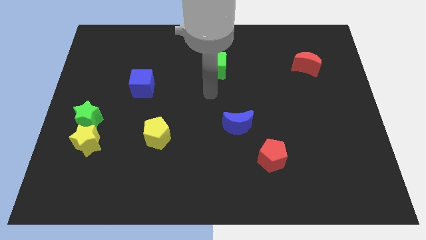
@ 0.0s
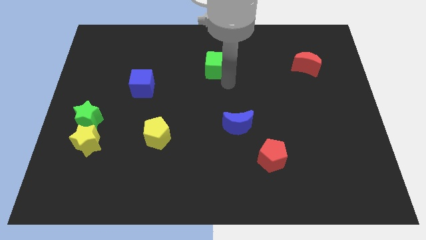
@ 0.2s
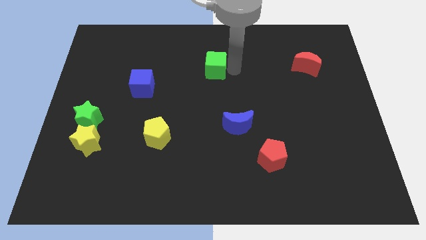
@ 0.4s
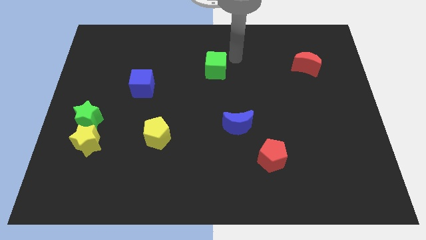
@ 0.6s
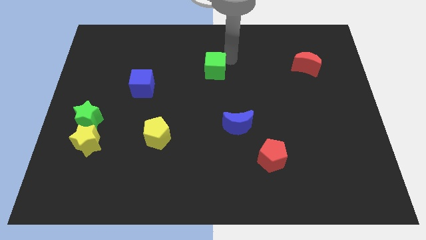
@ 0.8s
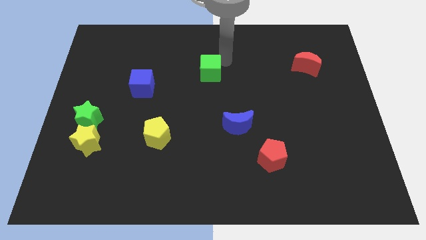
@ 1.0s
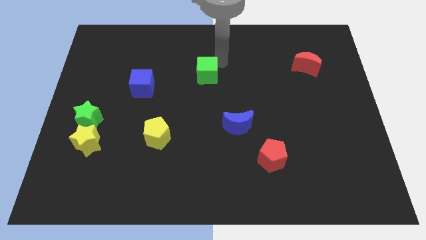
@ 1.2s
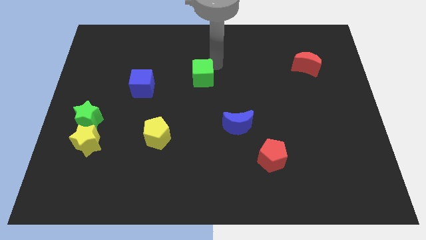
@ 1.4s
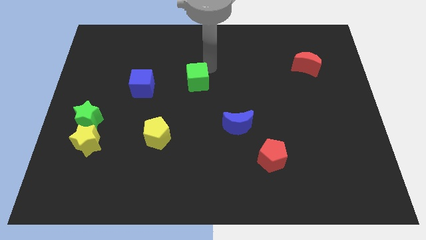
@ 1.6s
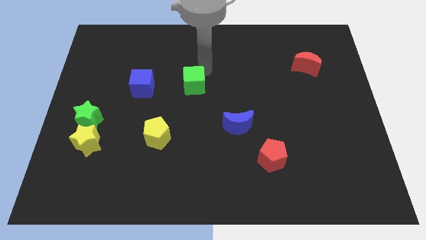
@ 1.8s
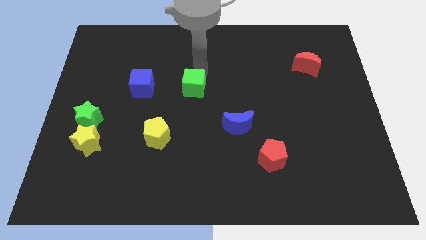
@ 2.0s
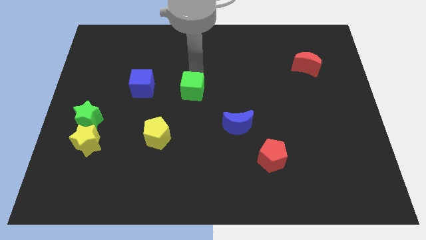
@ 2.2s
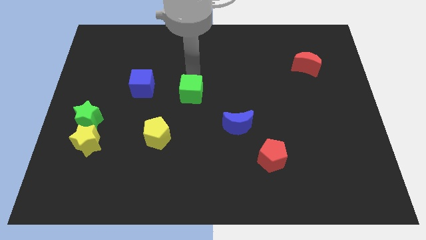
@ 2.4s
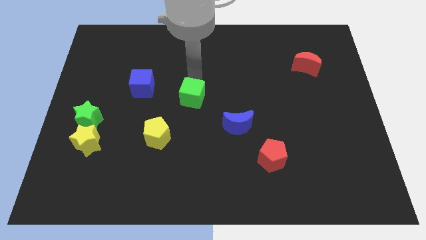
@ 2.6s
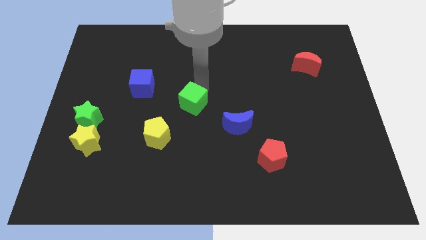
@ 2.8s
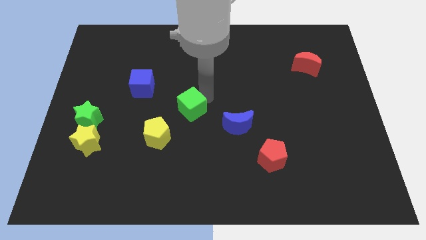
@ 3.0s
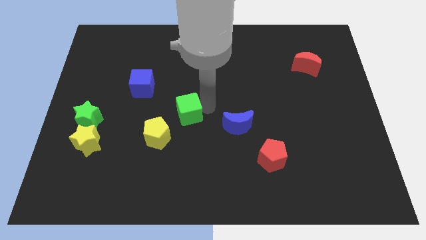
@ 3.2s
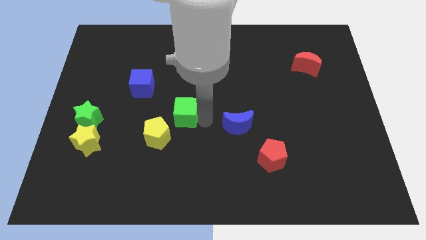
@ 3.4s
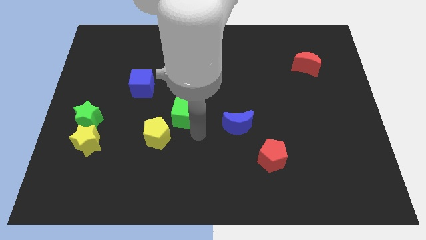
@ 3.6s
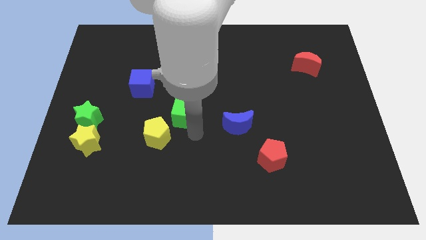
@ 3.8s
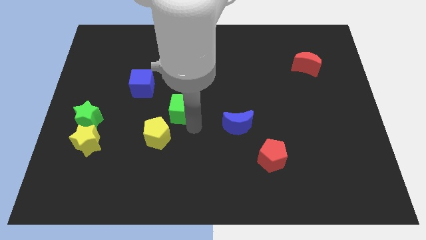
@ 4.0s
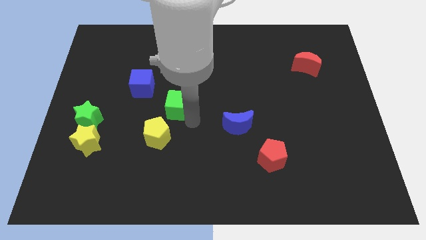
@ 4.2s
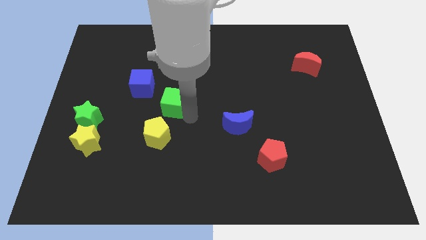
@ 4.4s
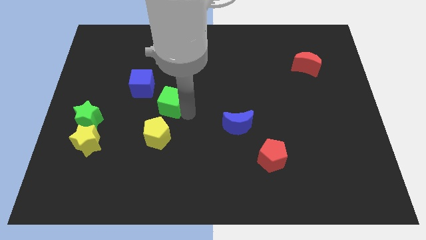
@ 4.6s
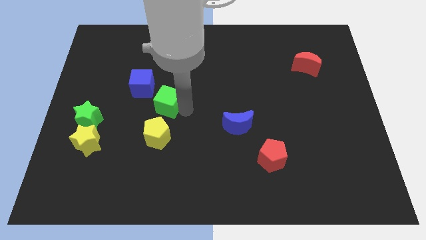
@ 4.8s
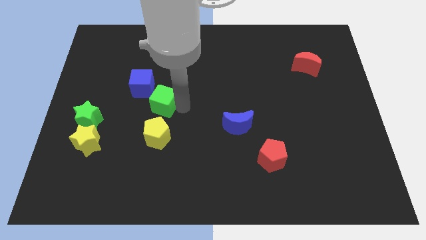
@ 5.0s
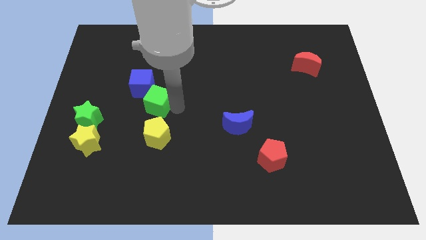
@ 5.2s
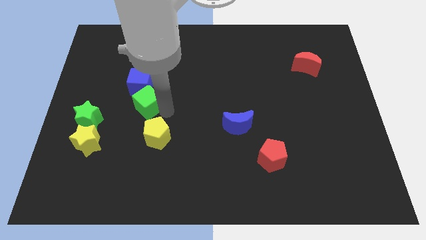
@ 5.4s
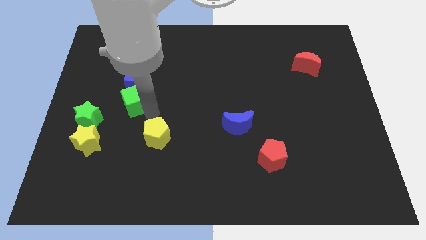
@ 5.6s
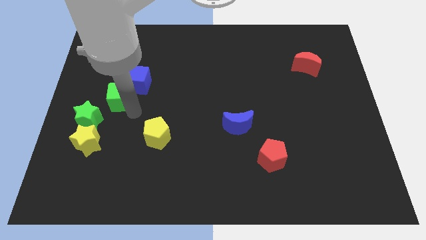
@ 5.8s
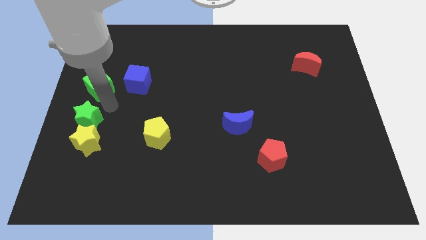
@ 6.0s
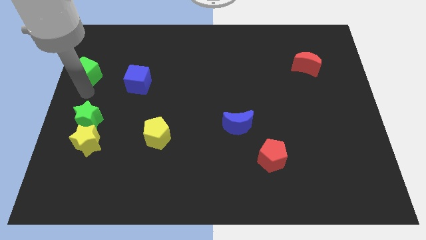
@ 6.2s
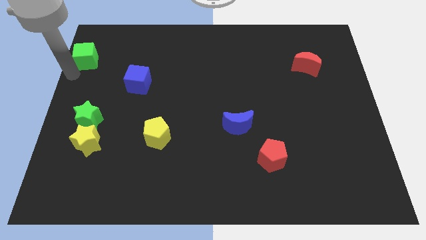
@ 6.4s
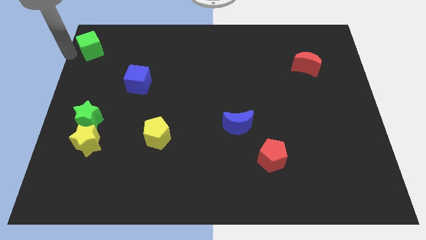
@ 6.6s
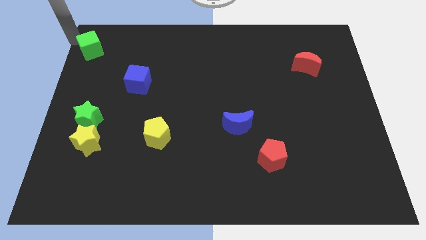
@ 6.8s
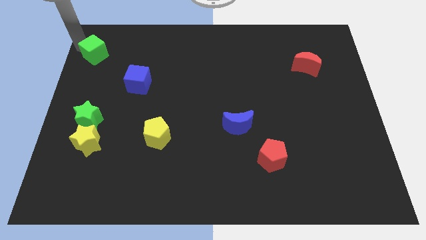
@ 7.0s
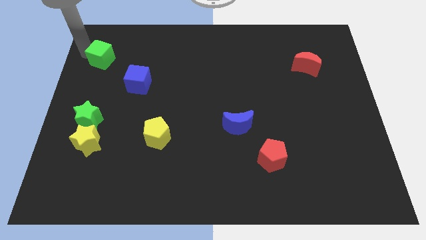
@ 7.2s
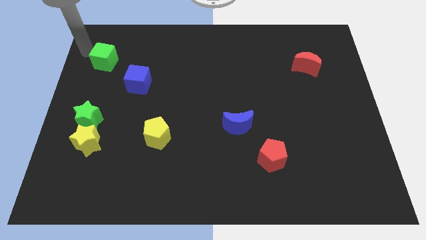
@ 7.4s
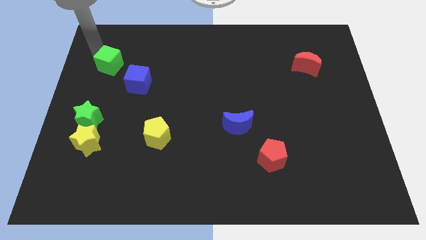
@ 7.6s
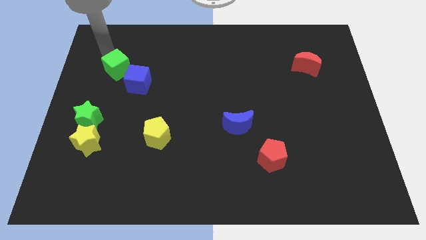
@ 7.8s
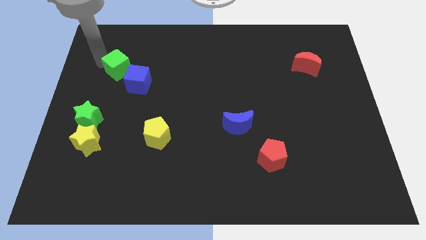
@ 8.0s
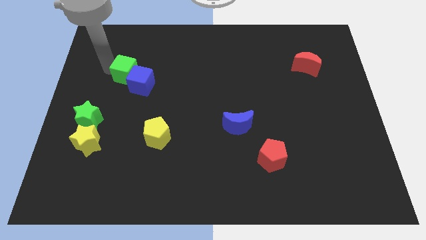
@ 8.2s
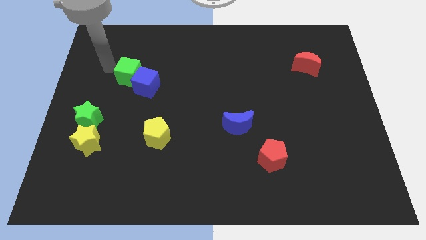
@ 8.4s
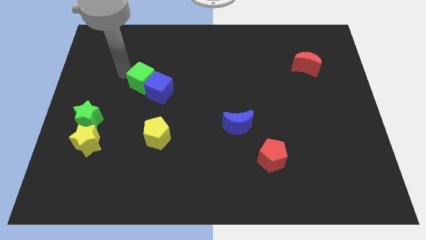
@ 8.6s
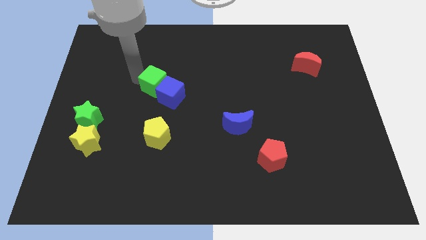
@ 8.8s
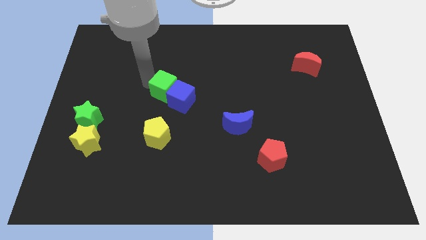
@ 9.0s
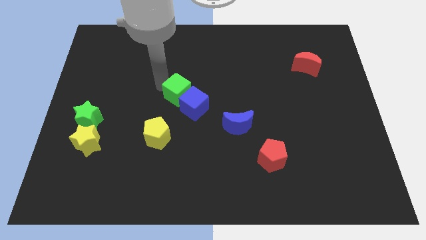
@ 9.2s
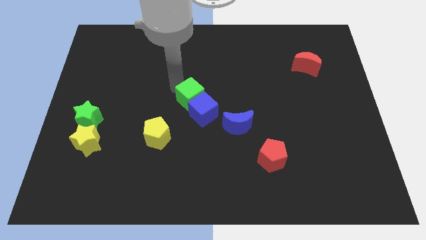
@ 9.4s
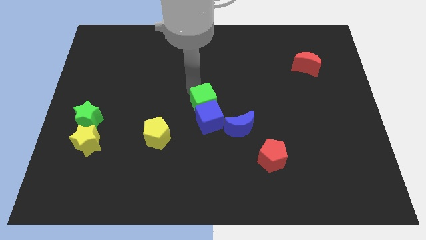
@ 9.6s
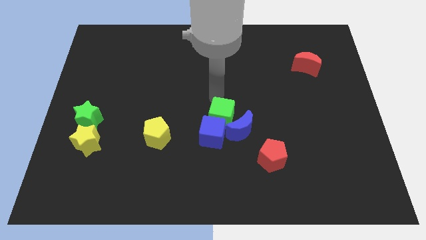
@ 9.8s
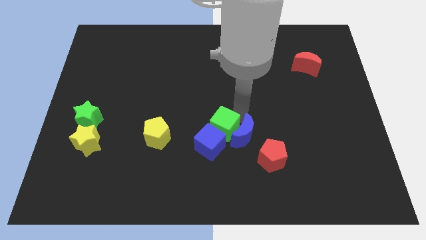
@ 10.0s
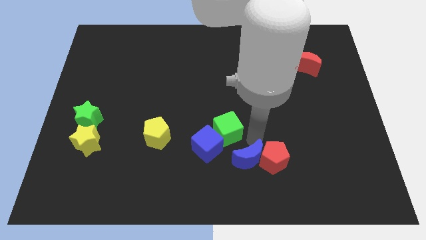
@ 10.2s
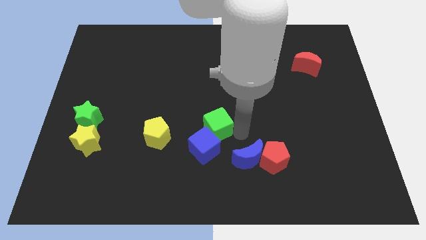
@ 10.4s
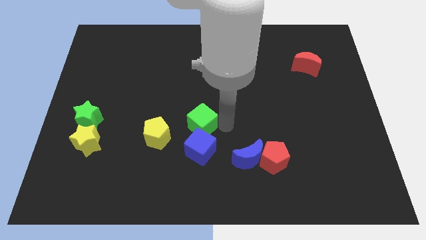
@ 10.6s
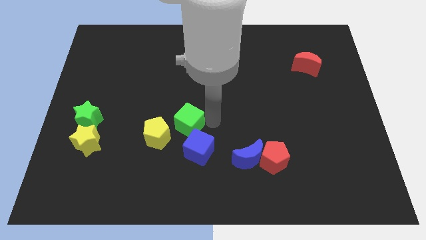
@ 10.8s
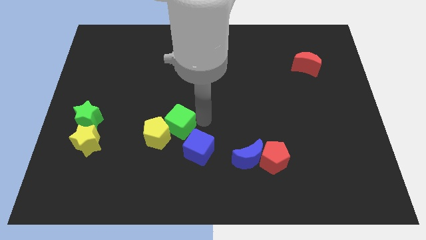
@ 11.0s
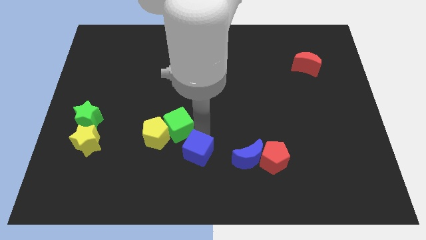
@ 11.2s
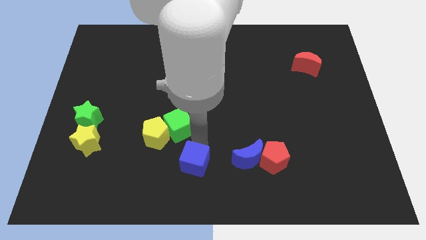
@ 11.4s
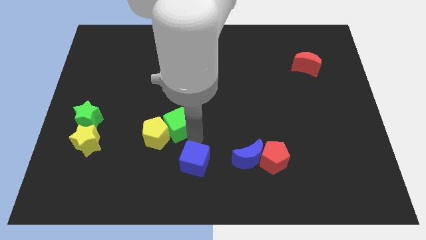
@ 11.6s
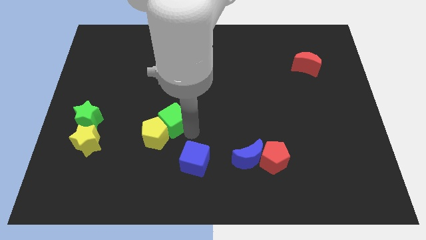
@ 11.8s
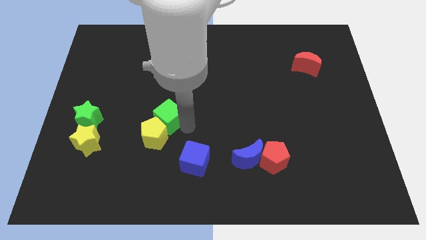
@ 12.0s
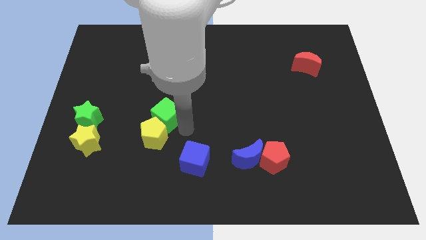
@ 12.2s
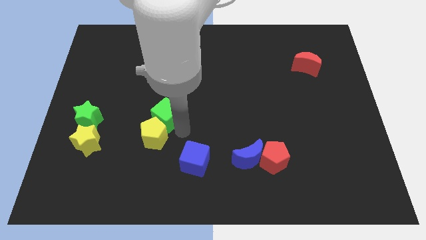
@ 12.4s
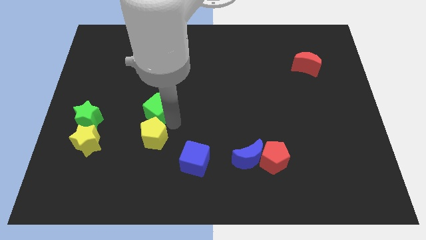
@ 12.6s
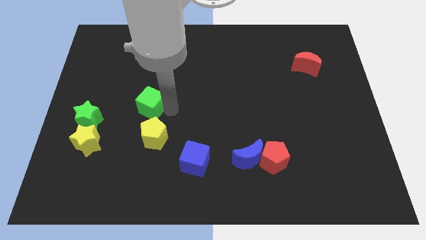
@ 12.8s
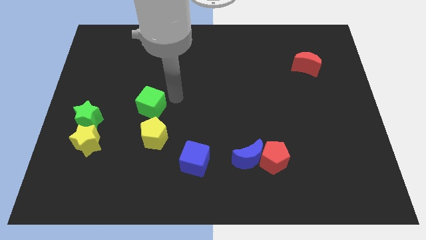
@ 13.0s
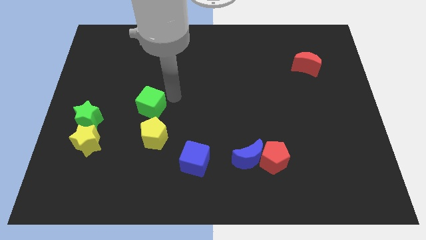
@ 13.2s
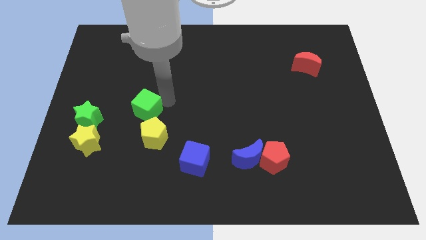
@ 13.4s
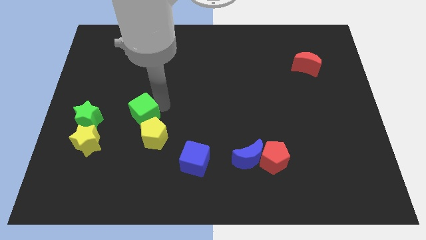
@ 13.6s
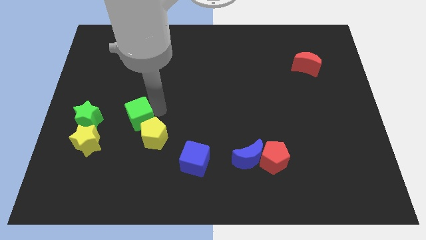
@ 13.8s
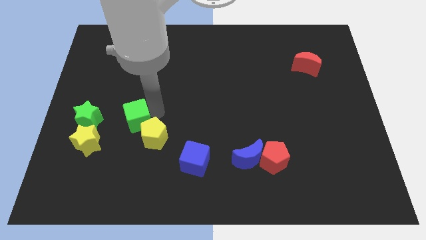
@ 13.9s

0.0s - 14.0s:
slide the green cube to the top right side of the yellow star
